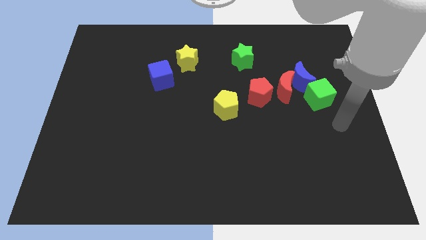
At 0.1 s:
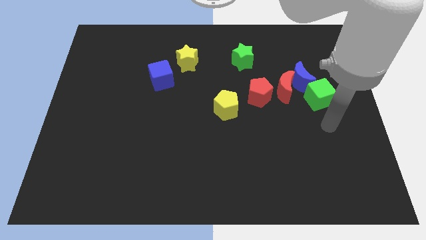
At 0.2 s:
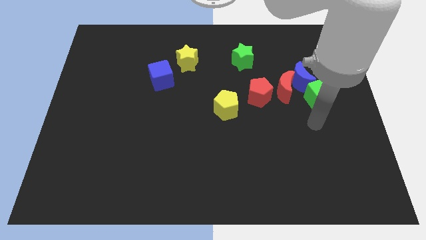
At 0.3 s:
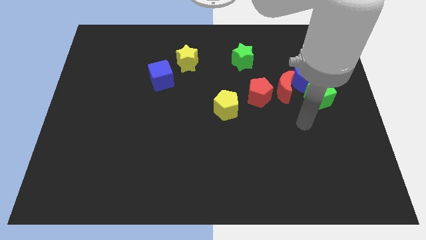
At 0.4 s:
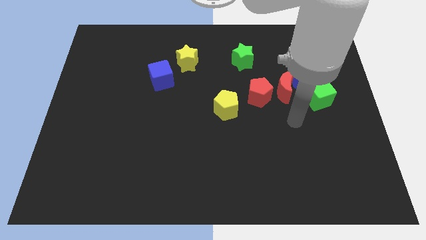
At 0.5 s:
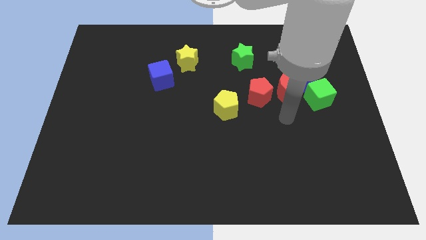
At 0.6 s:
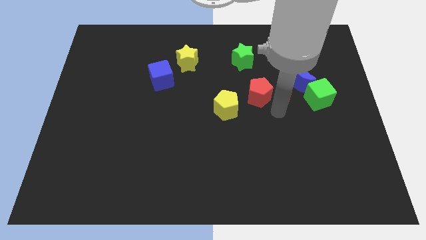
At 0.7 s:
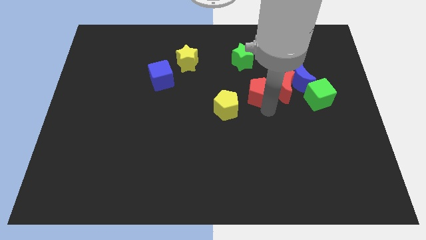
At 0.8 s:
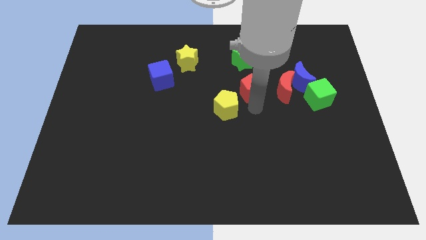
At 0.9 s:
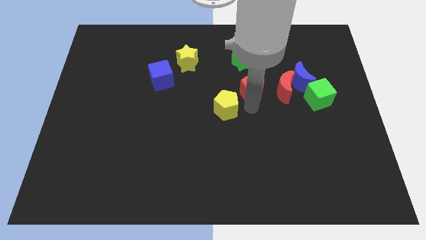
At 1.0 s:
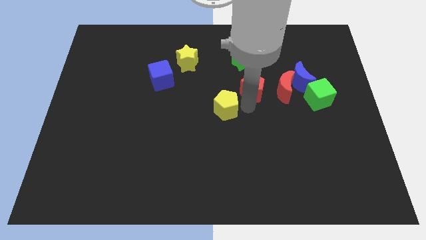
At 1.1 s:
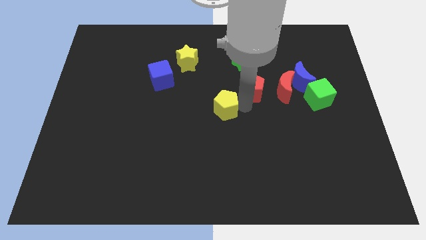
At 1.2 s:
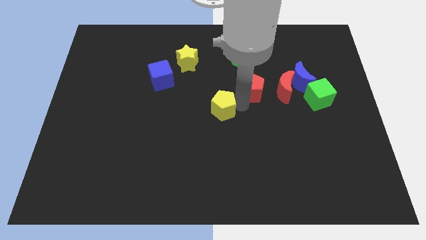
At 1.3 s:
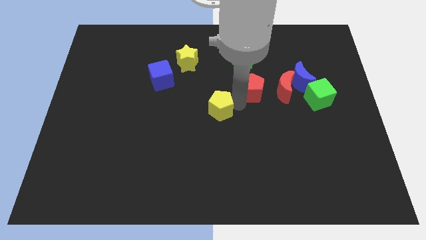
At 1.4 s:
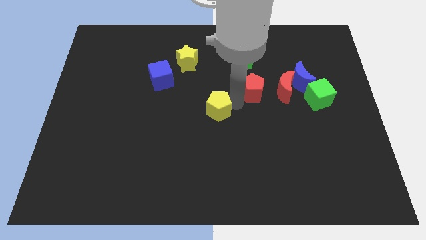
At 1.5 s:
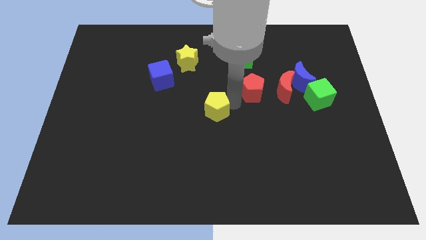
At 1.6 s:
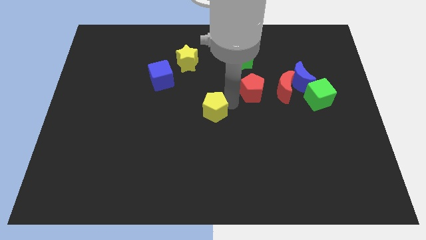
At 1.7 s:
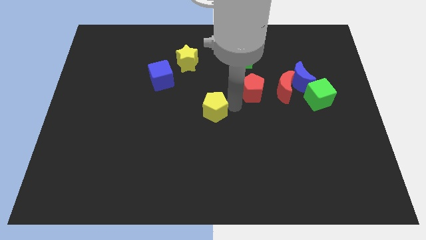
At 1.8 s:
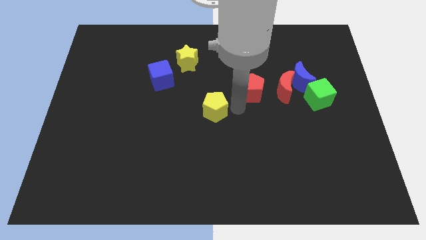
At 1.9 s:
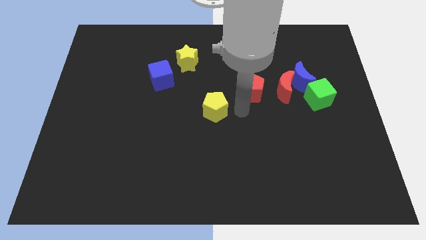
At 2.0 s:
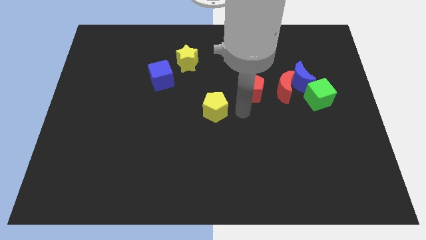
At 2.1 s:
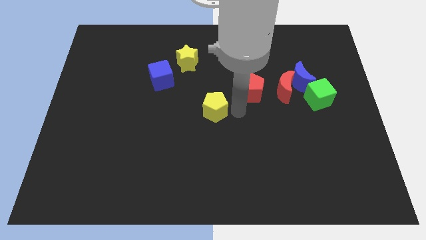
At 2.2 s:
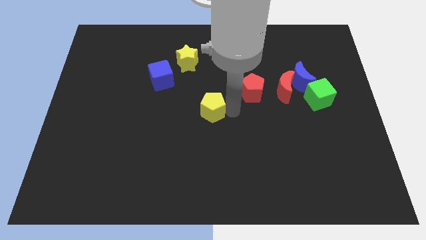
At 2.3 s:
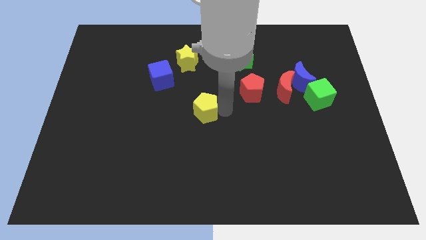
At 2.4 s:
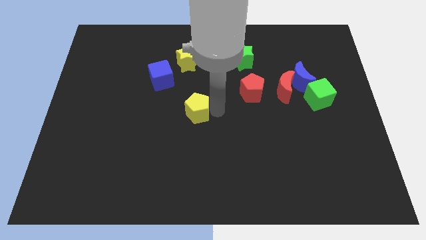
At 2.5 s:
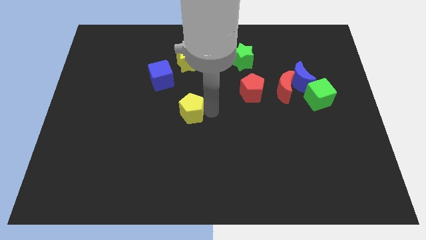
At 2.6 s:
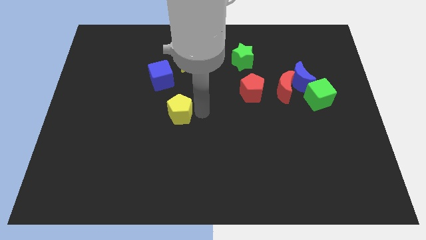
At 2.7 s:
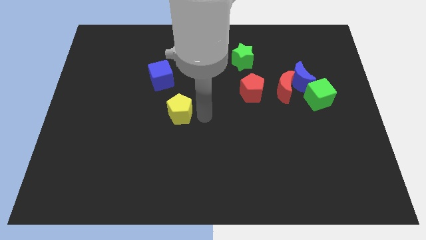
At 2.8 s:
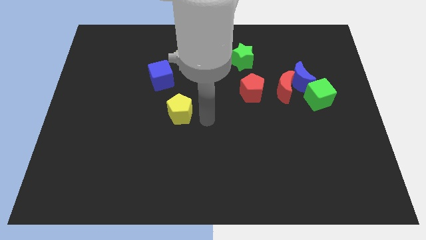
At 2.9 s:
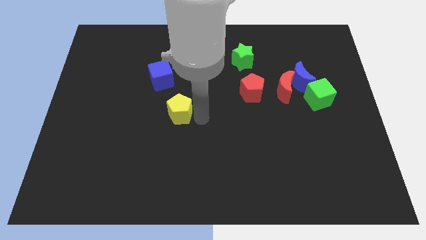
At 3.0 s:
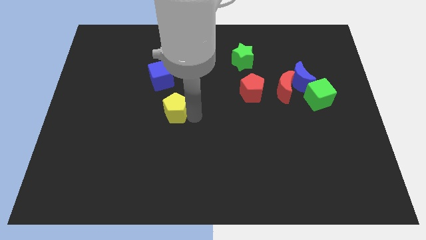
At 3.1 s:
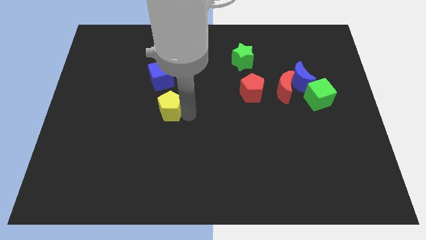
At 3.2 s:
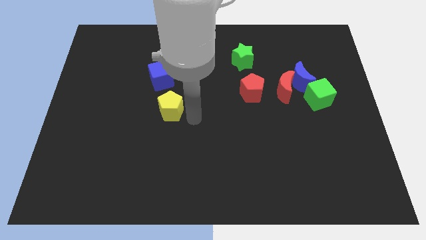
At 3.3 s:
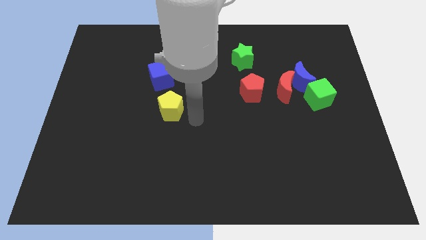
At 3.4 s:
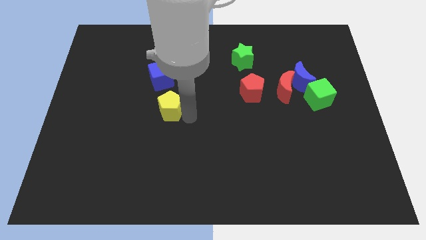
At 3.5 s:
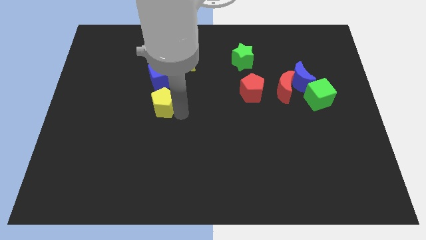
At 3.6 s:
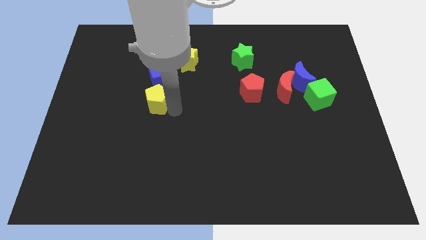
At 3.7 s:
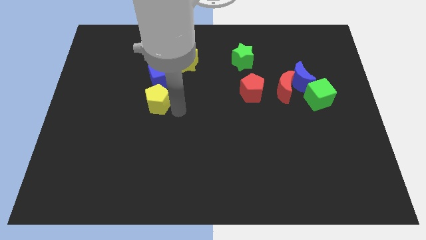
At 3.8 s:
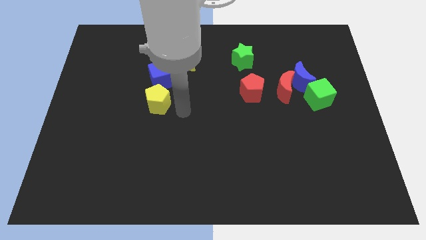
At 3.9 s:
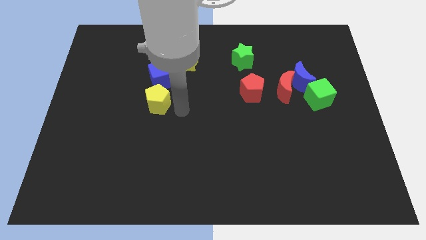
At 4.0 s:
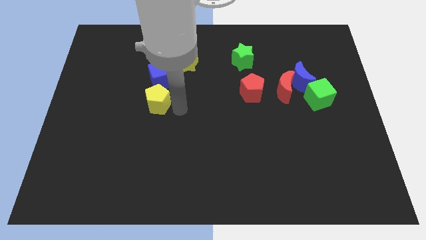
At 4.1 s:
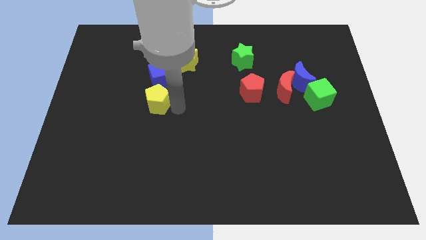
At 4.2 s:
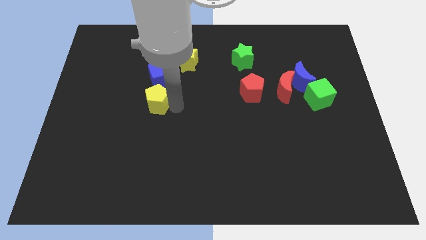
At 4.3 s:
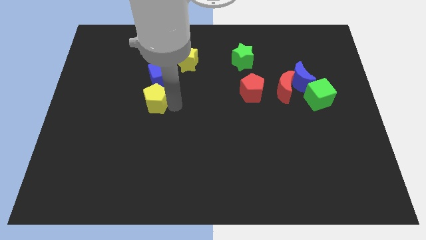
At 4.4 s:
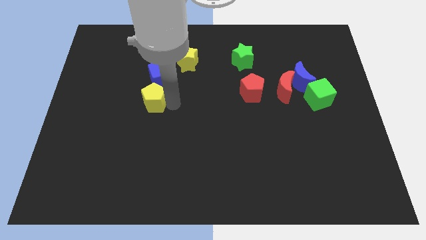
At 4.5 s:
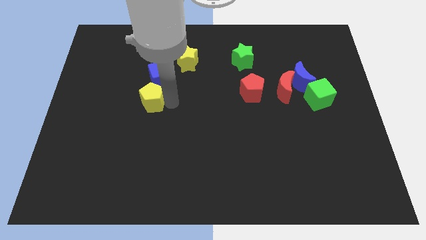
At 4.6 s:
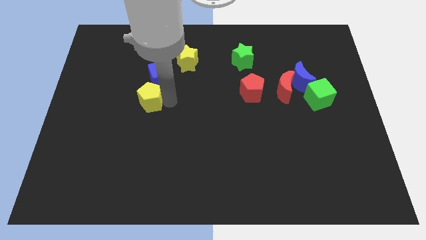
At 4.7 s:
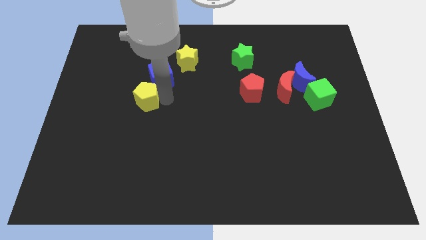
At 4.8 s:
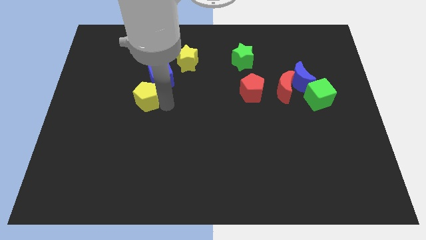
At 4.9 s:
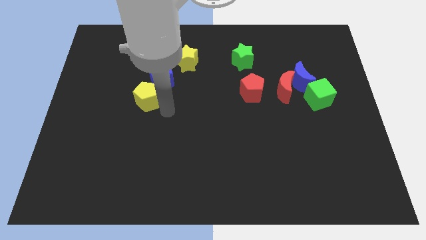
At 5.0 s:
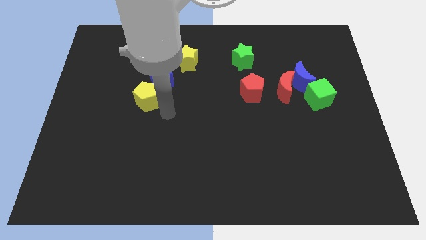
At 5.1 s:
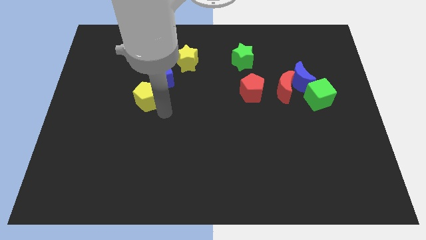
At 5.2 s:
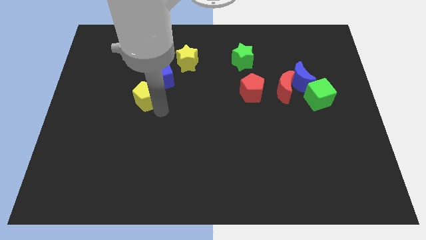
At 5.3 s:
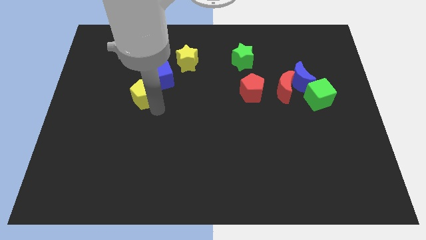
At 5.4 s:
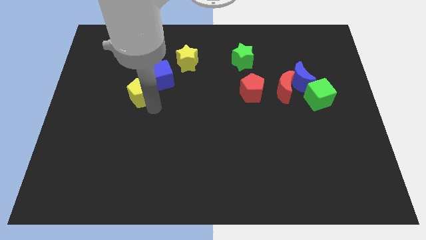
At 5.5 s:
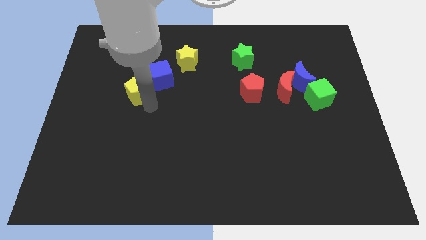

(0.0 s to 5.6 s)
push the yellow pentagon to the left side of the blue cube

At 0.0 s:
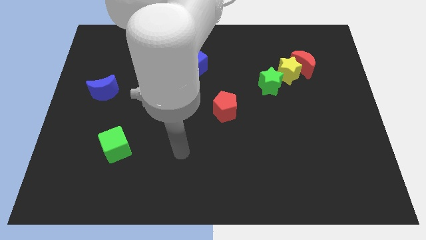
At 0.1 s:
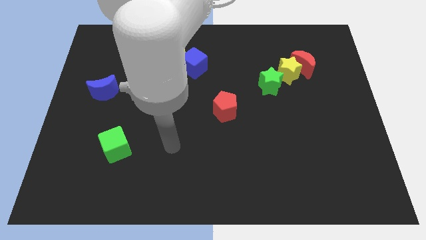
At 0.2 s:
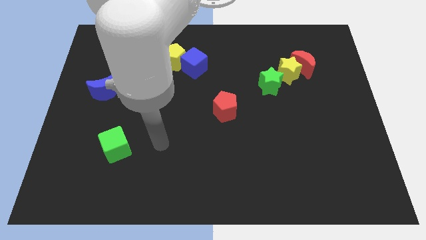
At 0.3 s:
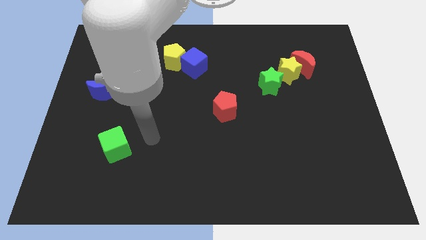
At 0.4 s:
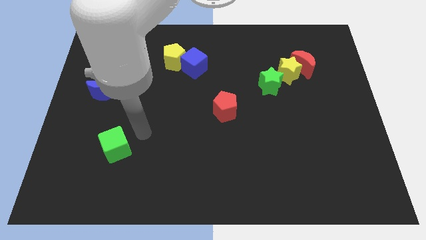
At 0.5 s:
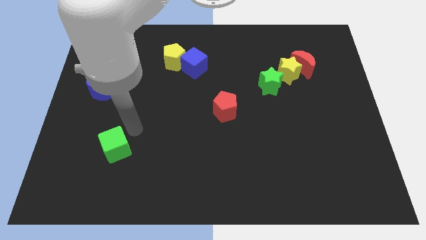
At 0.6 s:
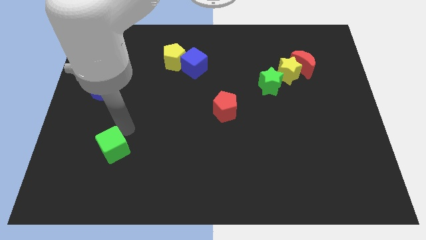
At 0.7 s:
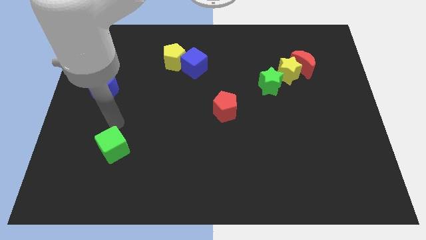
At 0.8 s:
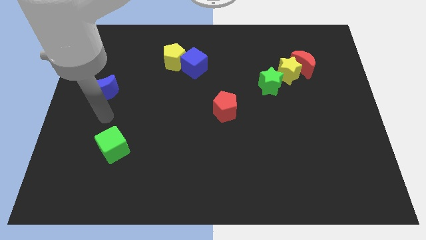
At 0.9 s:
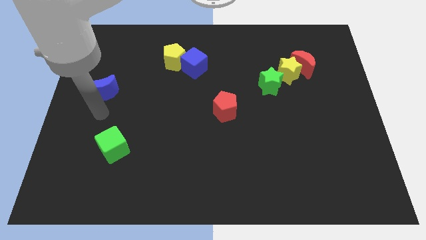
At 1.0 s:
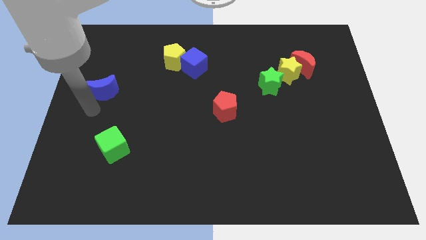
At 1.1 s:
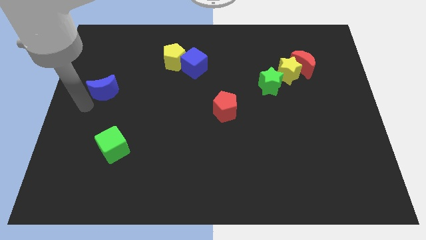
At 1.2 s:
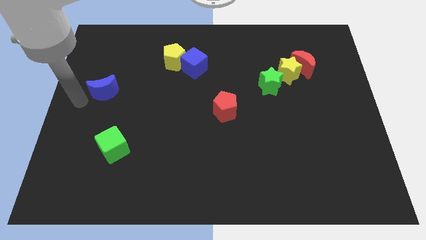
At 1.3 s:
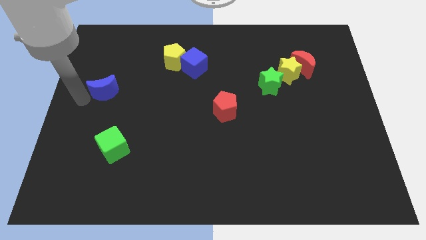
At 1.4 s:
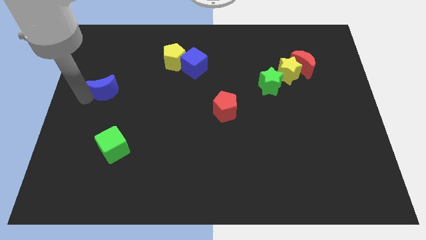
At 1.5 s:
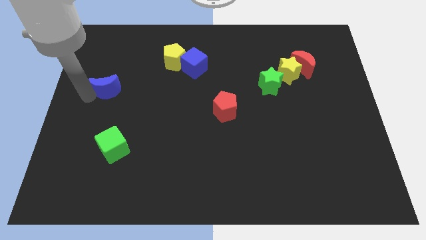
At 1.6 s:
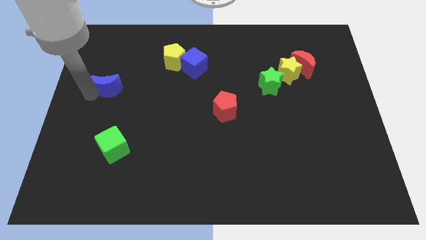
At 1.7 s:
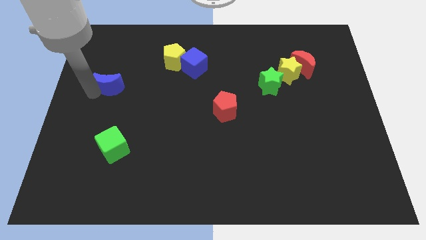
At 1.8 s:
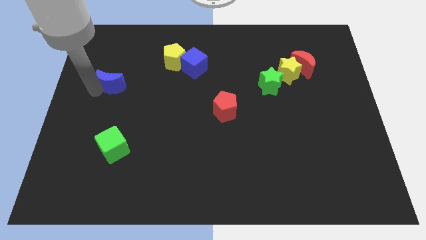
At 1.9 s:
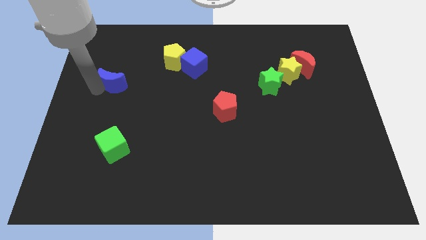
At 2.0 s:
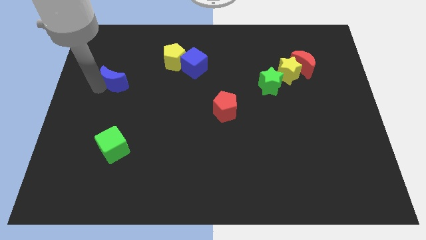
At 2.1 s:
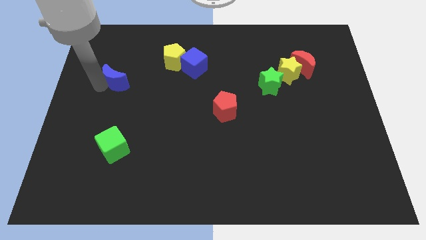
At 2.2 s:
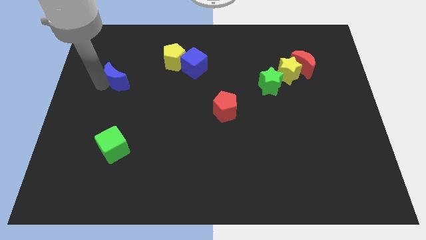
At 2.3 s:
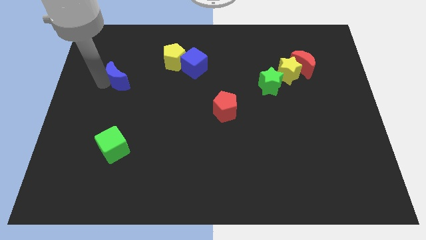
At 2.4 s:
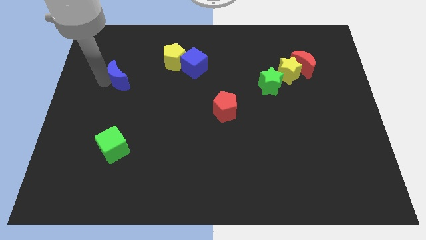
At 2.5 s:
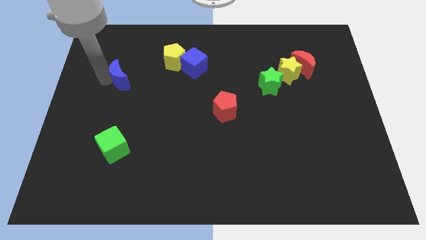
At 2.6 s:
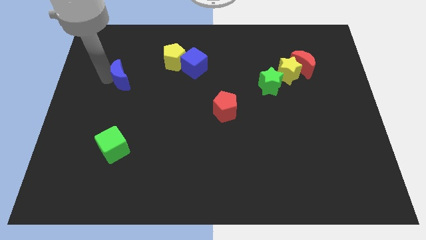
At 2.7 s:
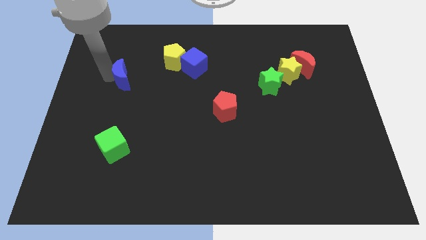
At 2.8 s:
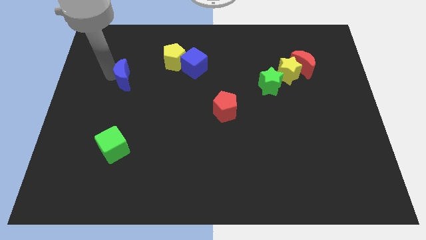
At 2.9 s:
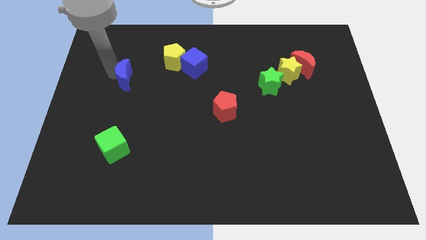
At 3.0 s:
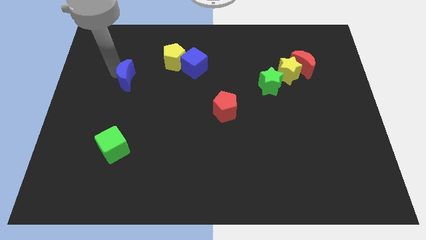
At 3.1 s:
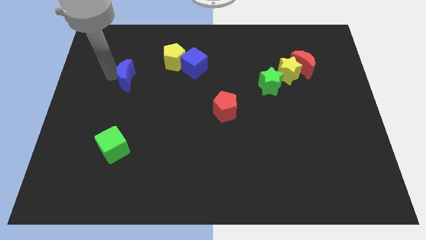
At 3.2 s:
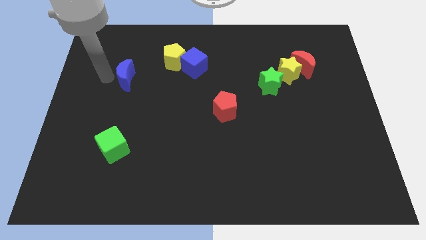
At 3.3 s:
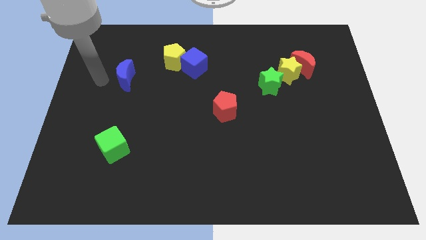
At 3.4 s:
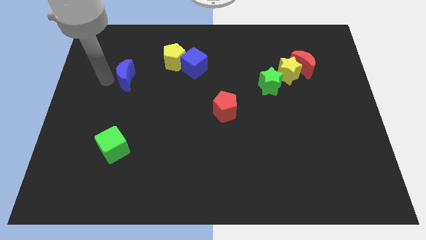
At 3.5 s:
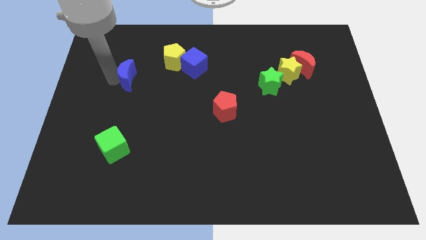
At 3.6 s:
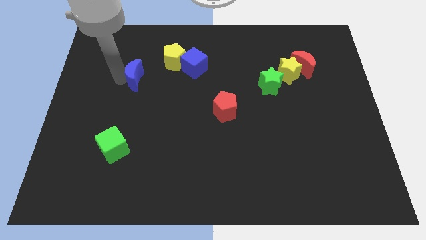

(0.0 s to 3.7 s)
put the blue moon to the bottom left of the yellow pentagon
